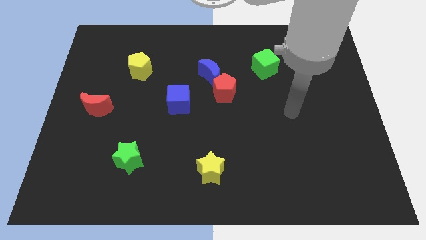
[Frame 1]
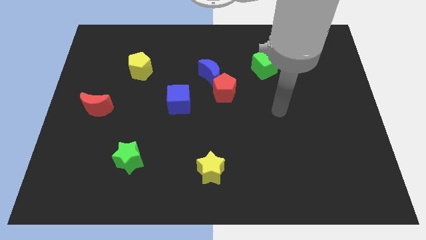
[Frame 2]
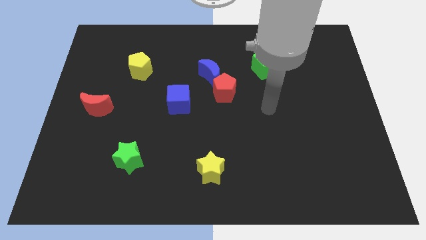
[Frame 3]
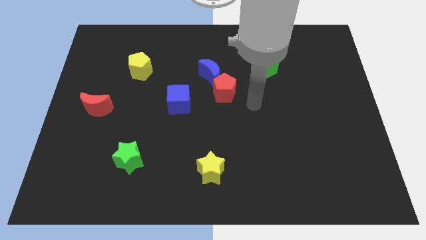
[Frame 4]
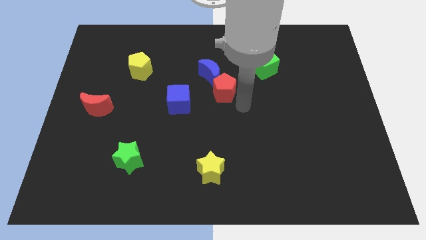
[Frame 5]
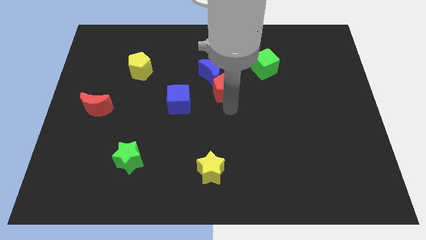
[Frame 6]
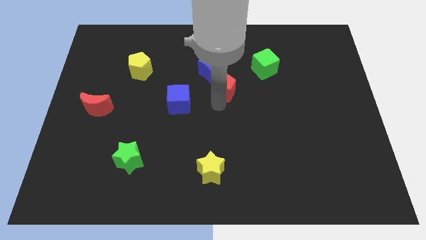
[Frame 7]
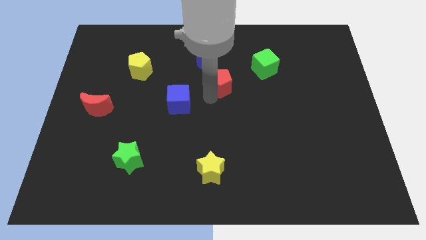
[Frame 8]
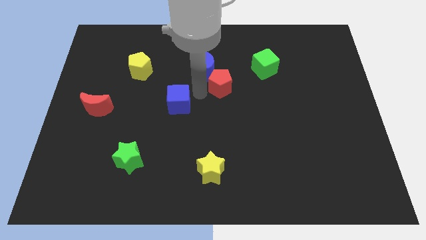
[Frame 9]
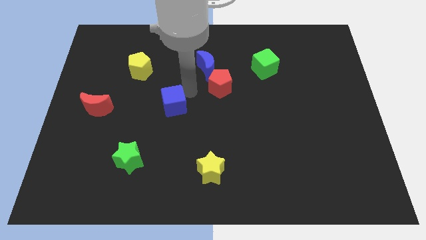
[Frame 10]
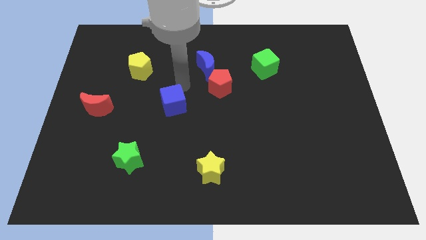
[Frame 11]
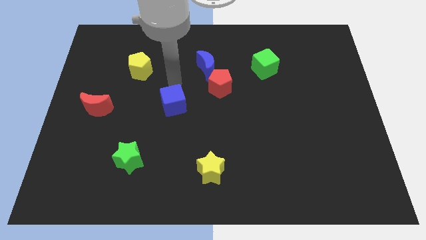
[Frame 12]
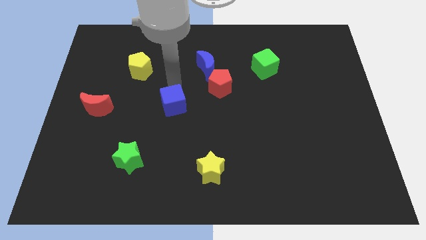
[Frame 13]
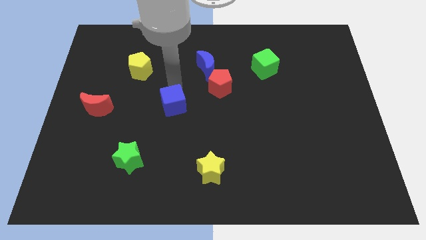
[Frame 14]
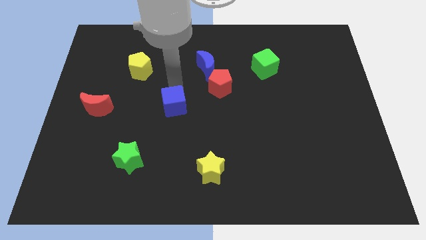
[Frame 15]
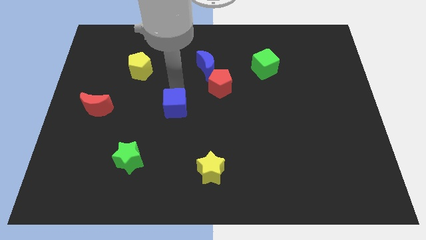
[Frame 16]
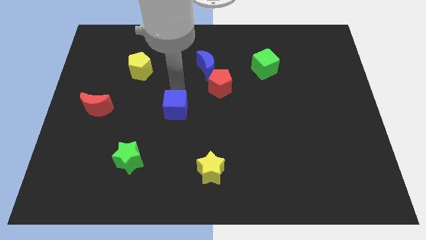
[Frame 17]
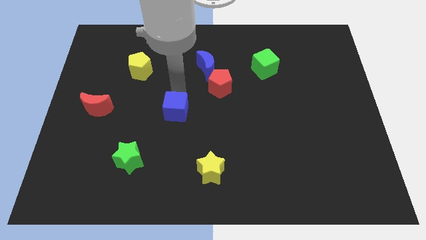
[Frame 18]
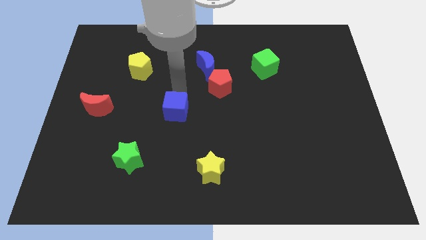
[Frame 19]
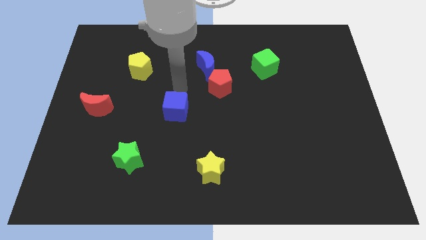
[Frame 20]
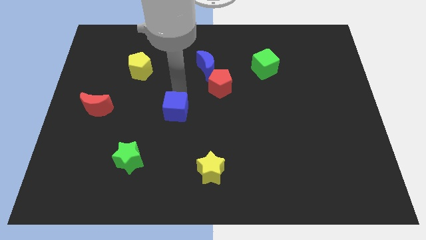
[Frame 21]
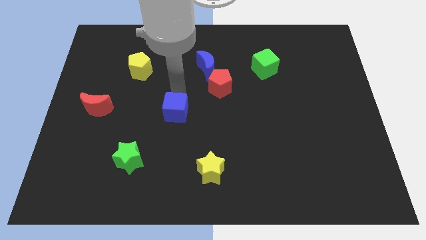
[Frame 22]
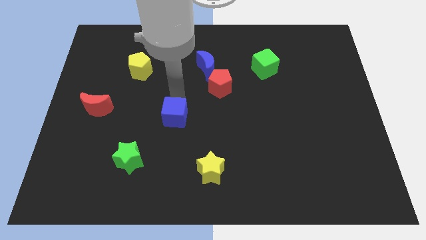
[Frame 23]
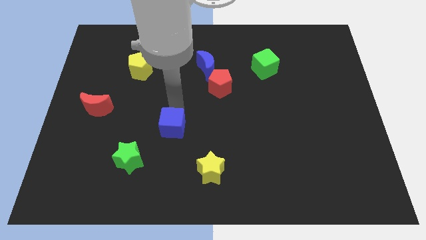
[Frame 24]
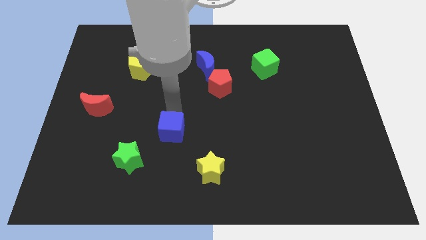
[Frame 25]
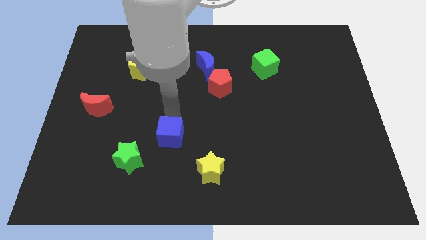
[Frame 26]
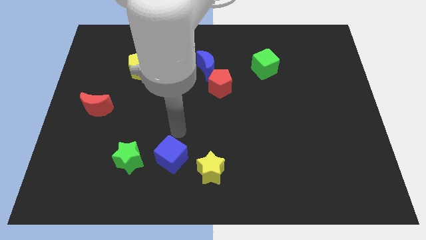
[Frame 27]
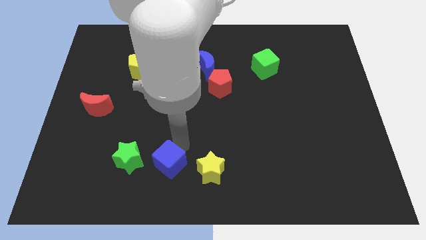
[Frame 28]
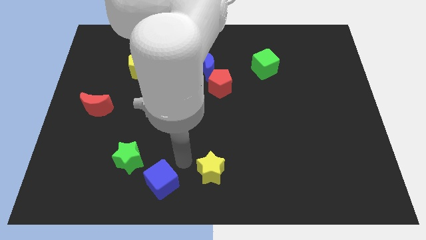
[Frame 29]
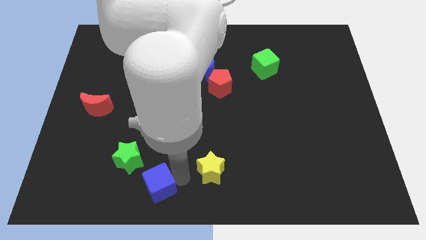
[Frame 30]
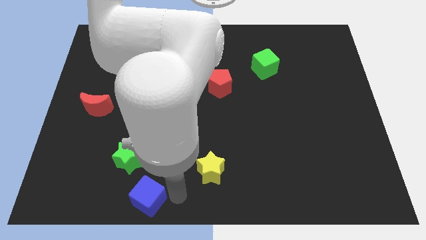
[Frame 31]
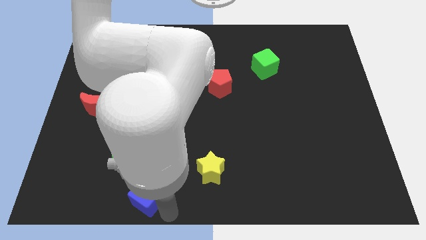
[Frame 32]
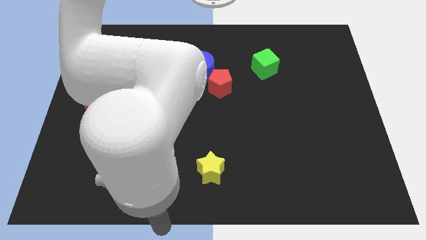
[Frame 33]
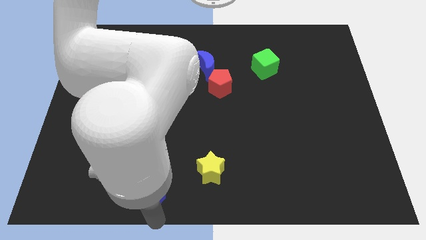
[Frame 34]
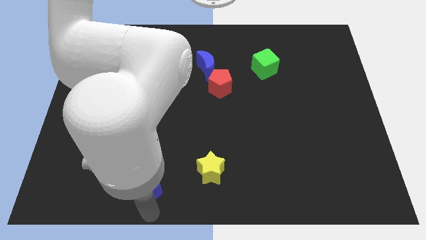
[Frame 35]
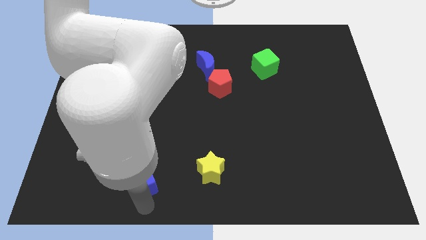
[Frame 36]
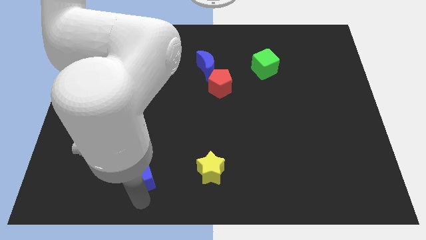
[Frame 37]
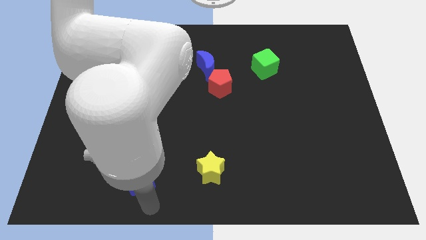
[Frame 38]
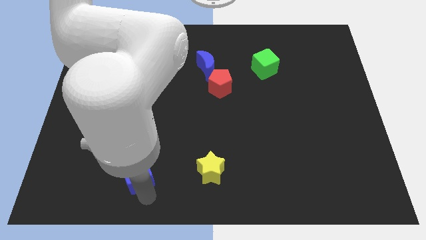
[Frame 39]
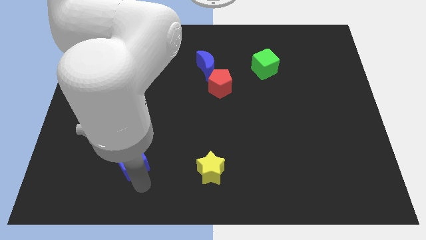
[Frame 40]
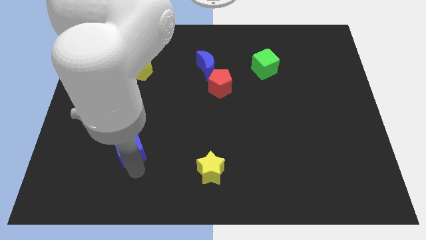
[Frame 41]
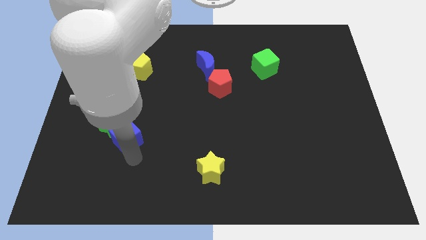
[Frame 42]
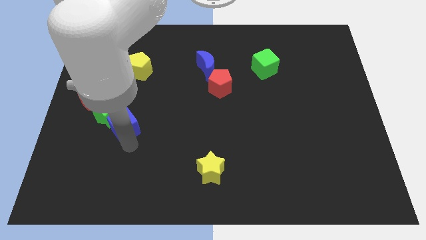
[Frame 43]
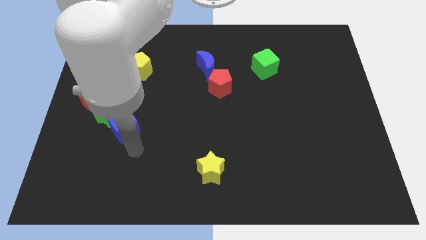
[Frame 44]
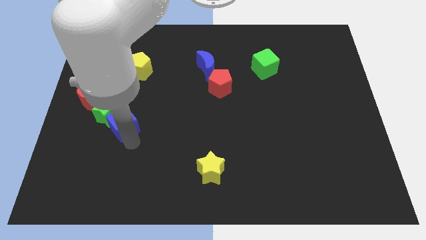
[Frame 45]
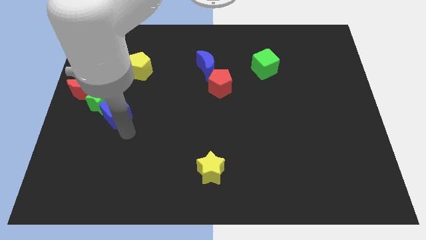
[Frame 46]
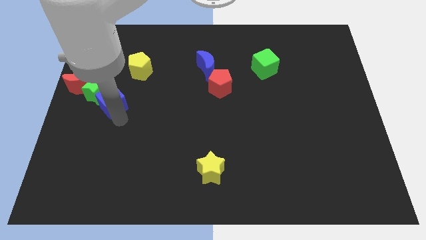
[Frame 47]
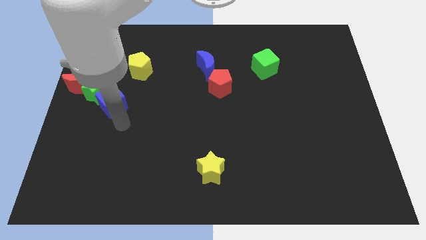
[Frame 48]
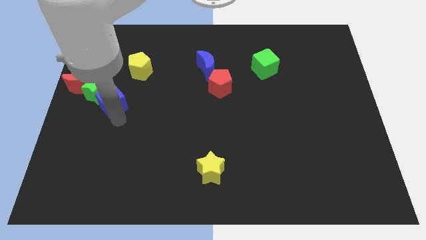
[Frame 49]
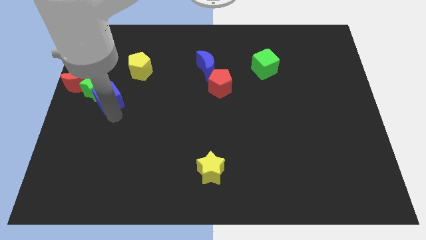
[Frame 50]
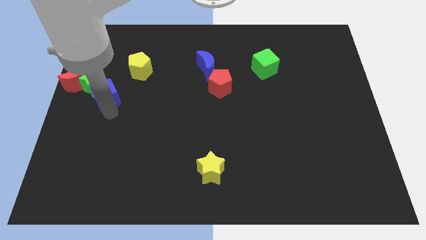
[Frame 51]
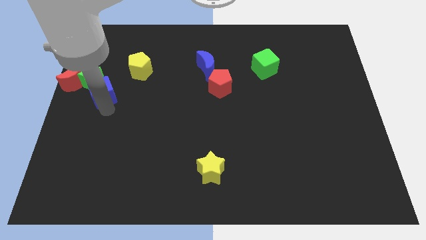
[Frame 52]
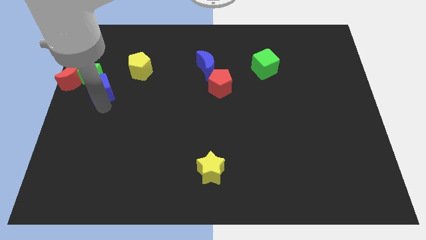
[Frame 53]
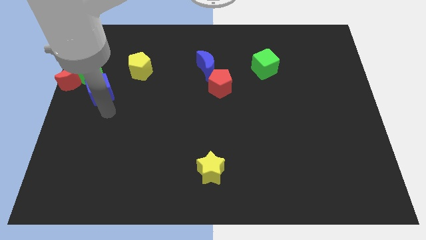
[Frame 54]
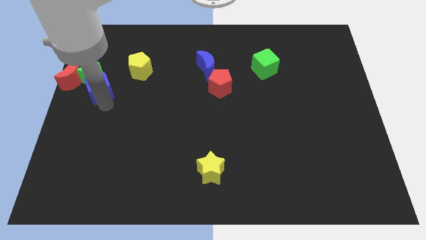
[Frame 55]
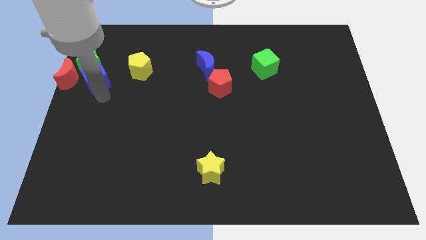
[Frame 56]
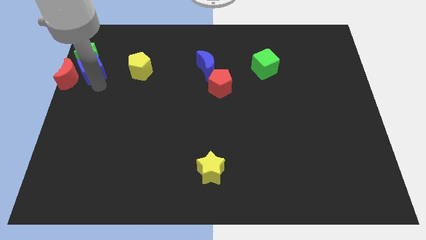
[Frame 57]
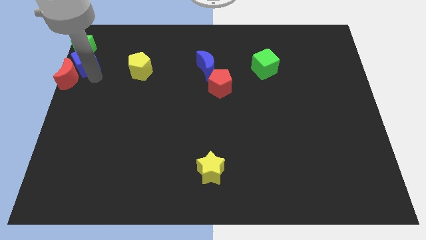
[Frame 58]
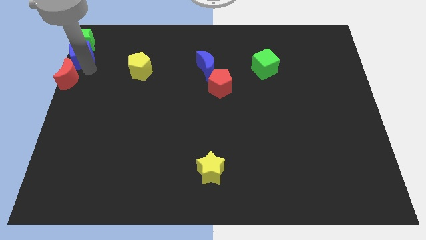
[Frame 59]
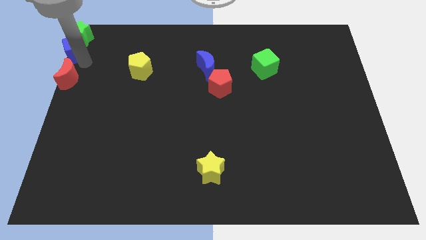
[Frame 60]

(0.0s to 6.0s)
slide the blue cube to the upper left corner

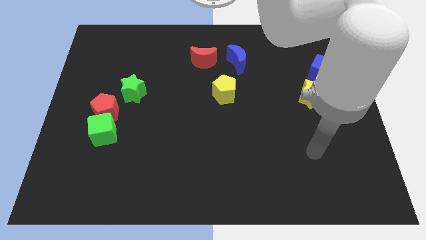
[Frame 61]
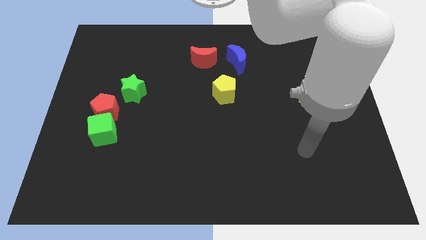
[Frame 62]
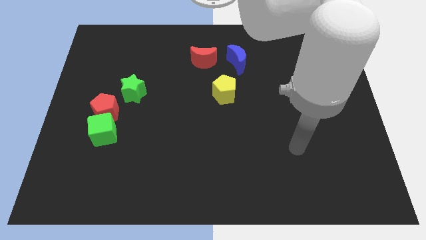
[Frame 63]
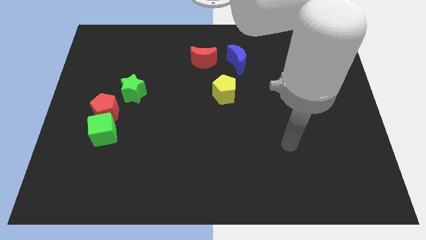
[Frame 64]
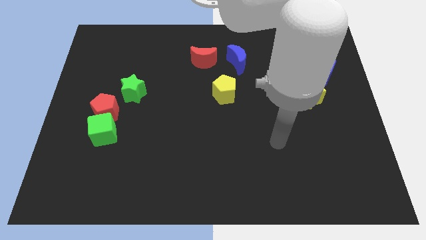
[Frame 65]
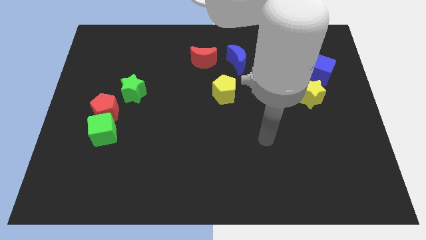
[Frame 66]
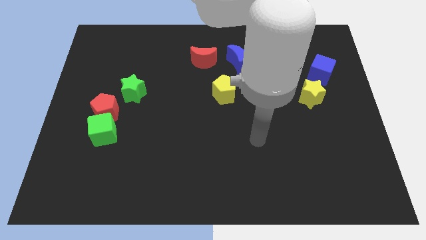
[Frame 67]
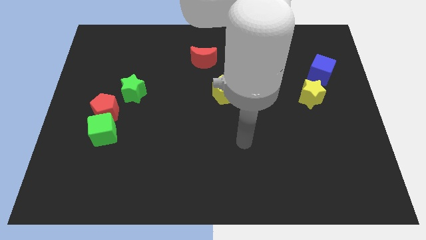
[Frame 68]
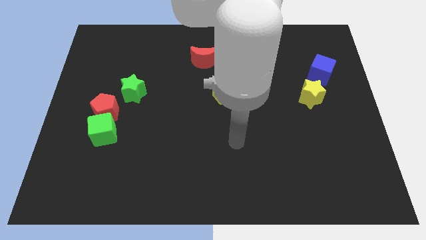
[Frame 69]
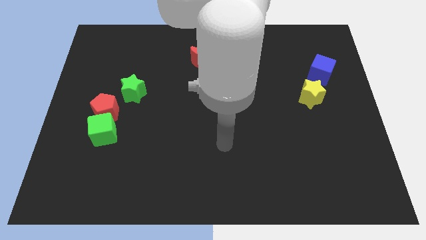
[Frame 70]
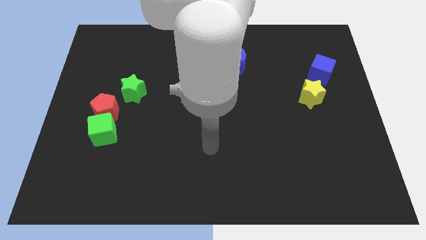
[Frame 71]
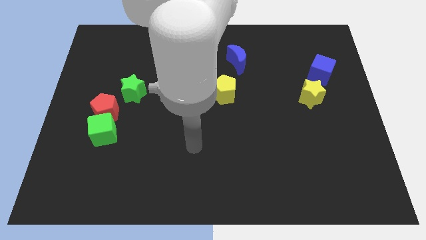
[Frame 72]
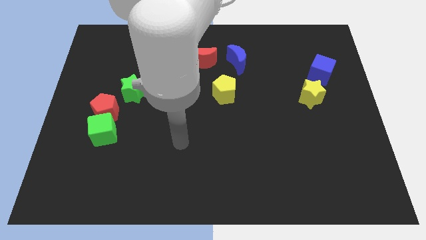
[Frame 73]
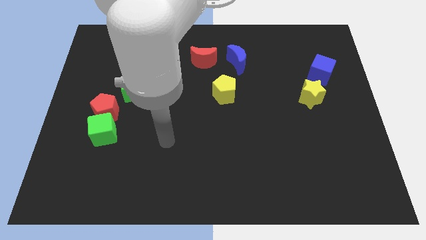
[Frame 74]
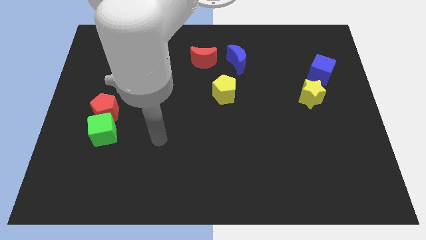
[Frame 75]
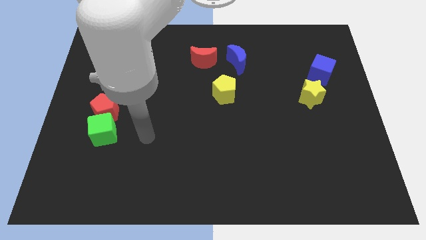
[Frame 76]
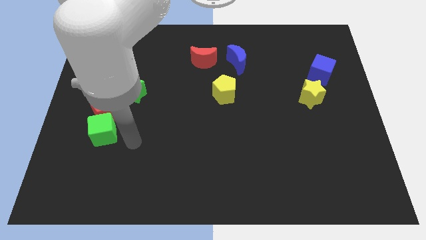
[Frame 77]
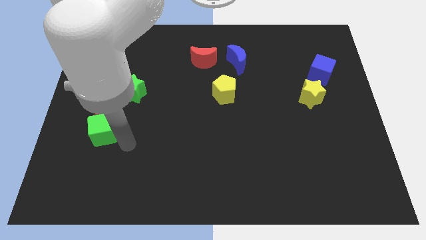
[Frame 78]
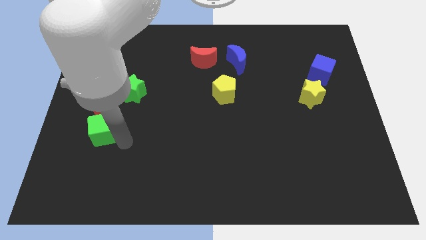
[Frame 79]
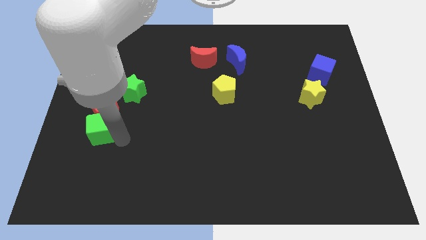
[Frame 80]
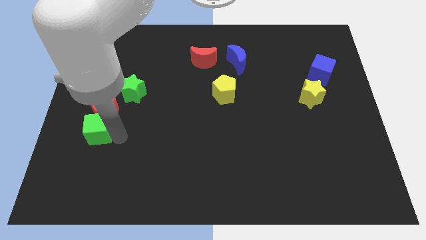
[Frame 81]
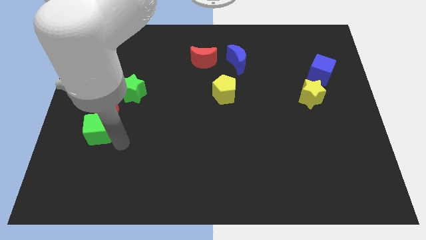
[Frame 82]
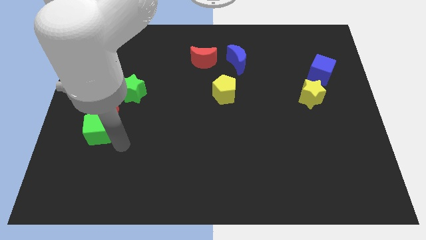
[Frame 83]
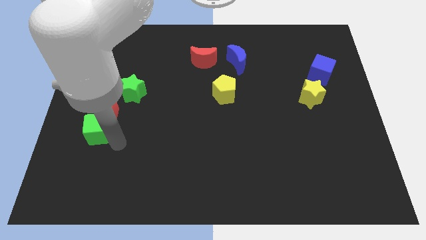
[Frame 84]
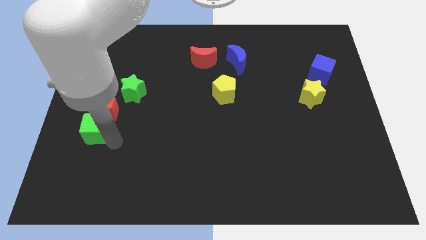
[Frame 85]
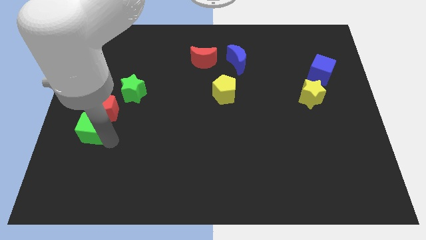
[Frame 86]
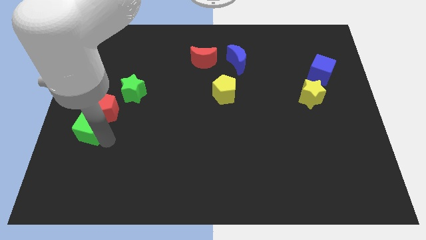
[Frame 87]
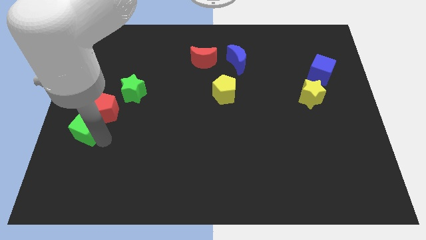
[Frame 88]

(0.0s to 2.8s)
put the green cube to the center left
